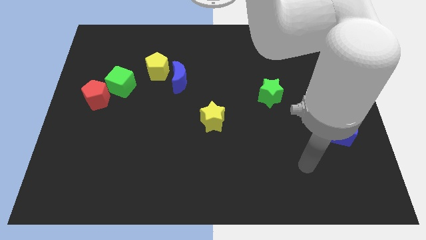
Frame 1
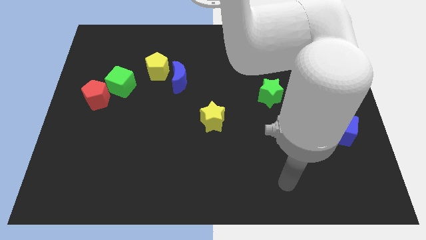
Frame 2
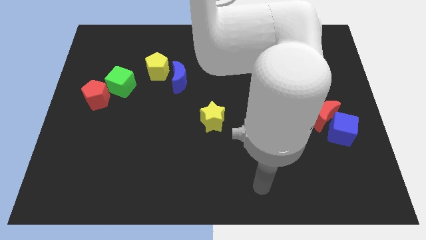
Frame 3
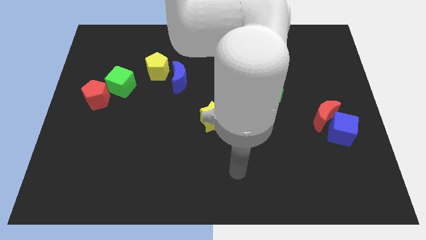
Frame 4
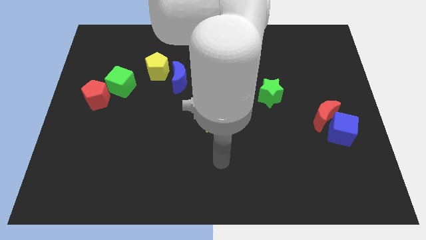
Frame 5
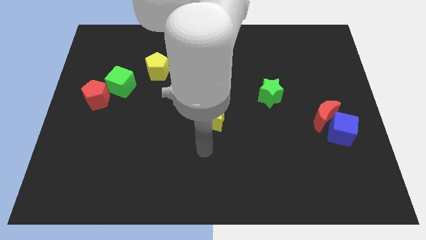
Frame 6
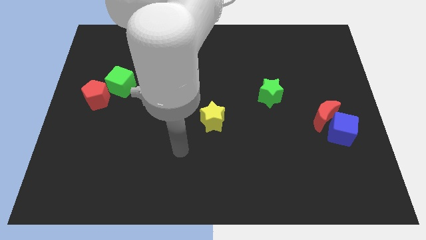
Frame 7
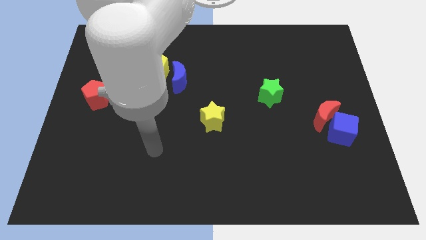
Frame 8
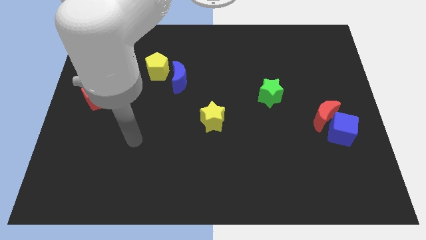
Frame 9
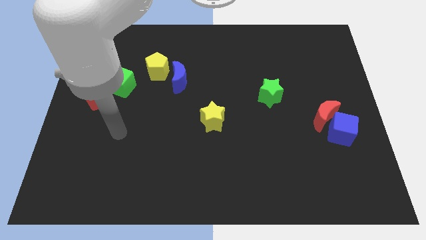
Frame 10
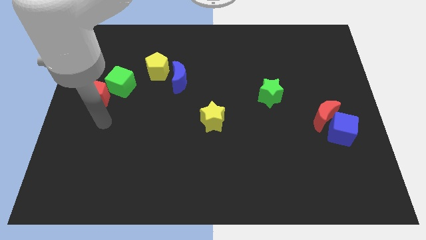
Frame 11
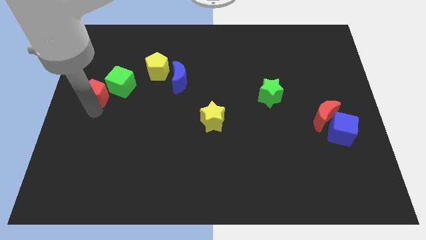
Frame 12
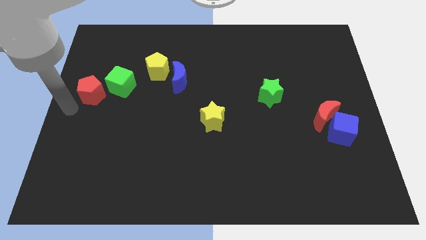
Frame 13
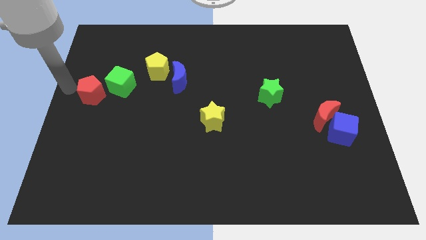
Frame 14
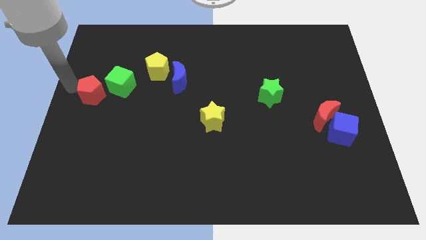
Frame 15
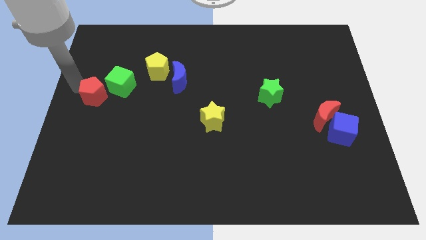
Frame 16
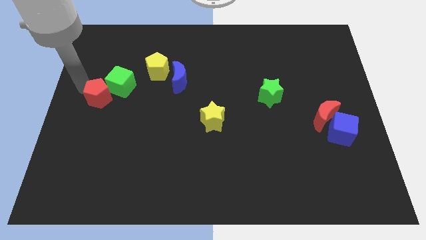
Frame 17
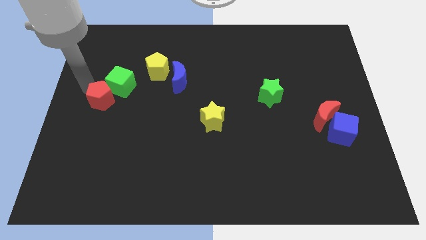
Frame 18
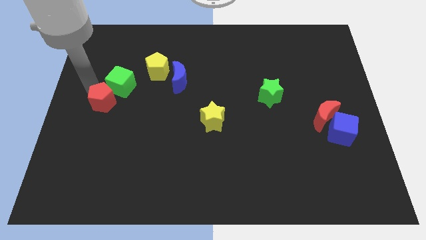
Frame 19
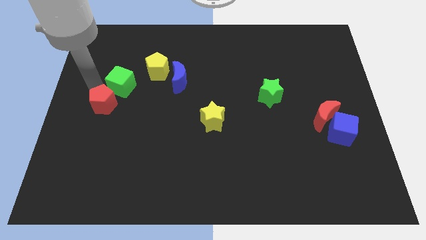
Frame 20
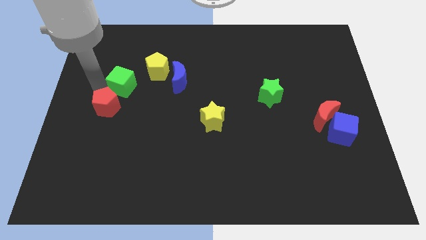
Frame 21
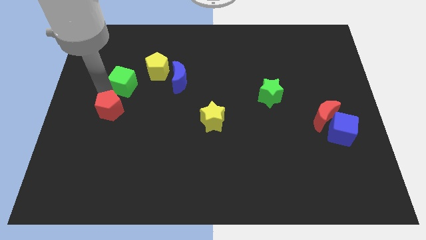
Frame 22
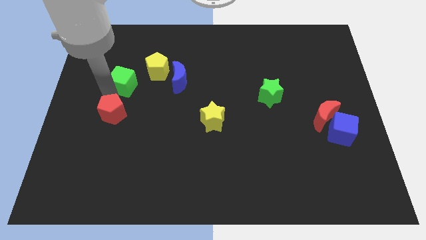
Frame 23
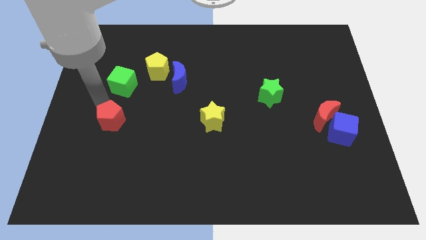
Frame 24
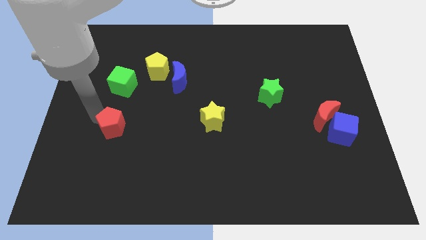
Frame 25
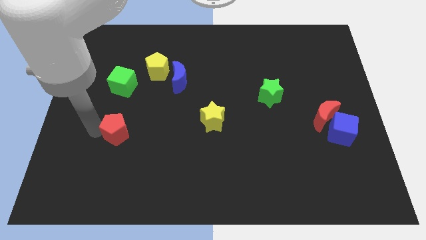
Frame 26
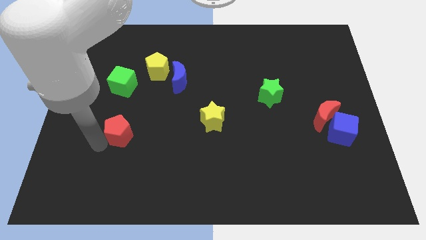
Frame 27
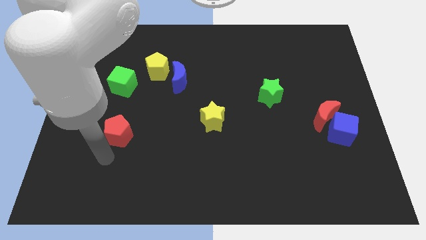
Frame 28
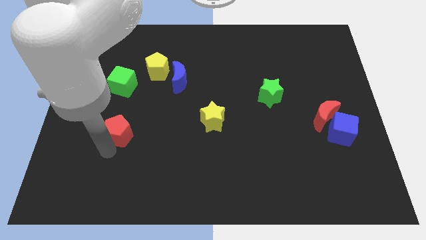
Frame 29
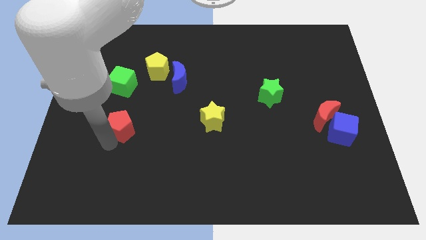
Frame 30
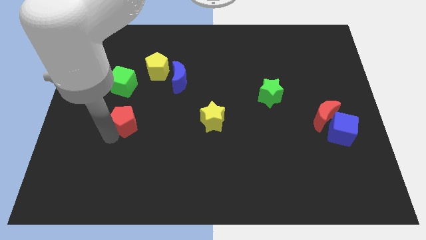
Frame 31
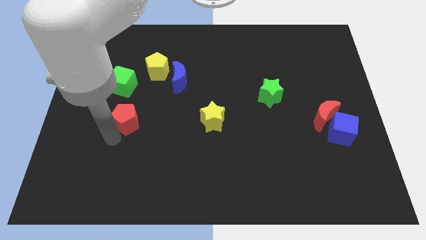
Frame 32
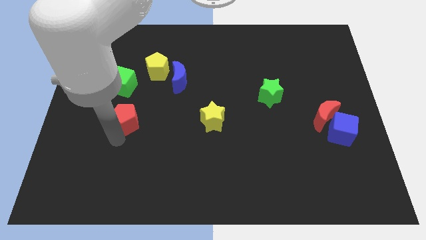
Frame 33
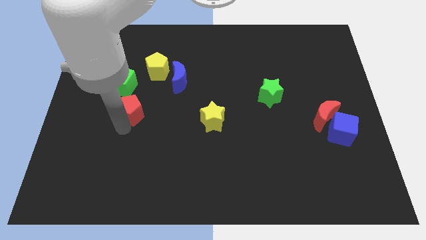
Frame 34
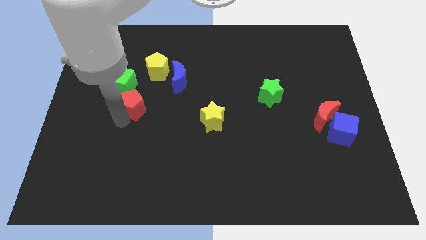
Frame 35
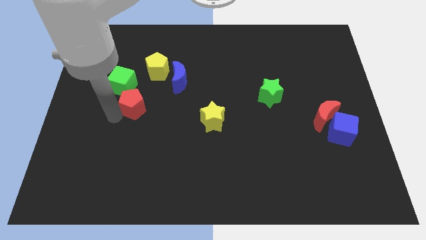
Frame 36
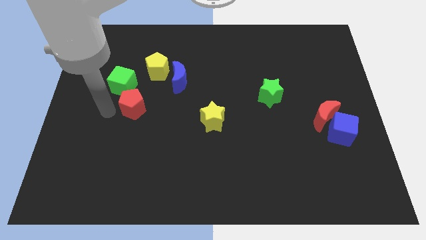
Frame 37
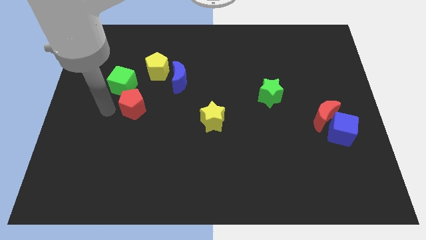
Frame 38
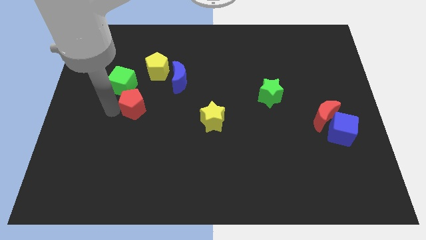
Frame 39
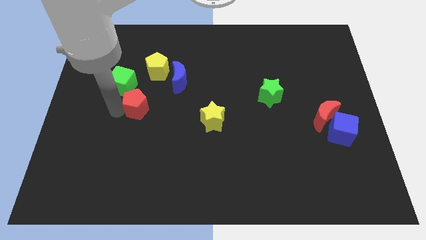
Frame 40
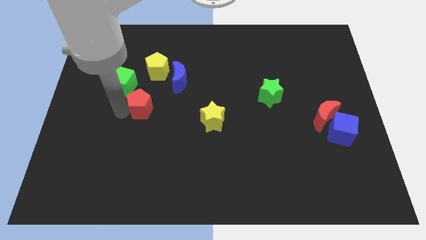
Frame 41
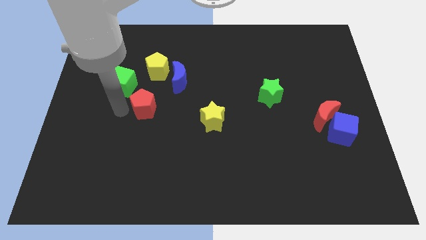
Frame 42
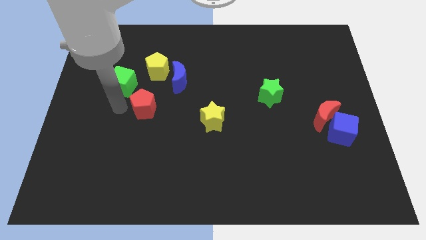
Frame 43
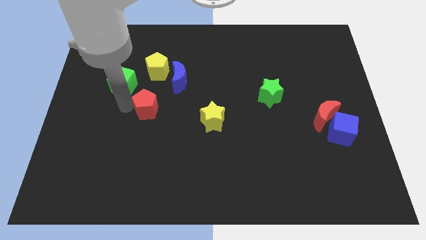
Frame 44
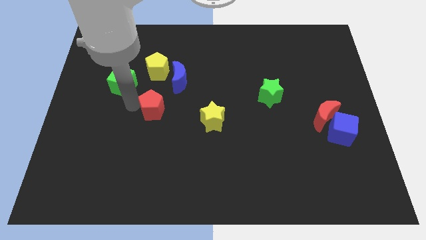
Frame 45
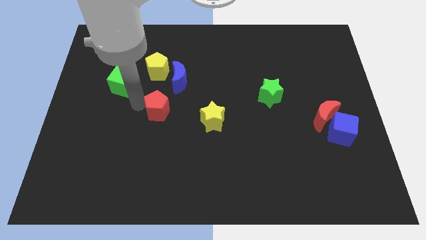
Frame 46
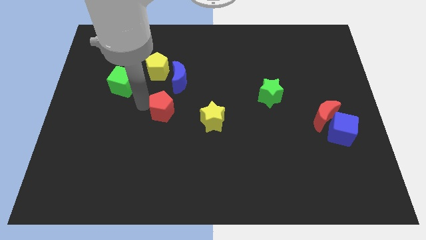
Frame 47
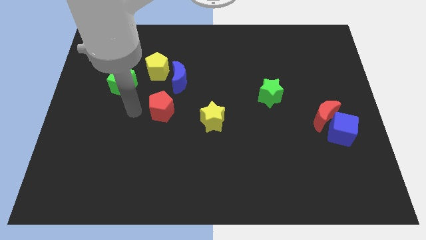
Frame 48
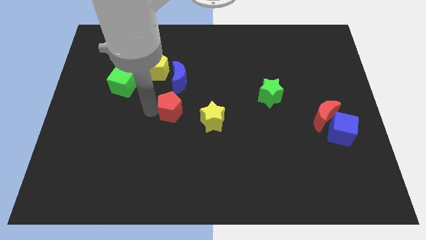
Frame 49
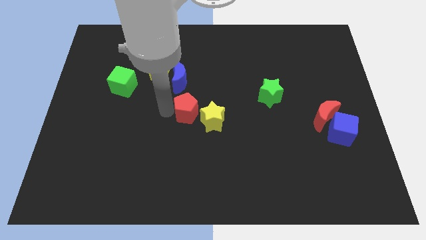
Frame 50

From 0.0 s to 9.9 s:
slide the red pentagon right

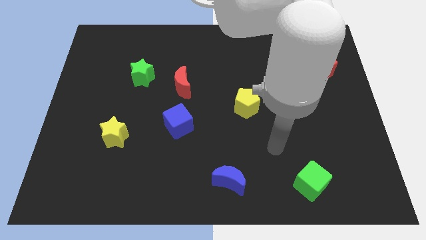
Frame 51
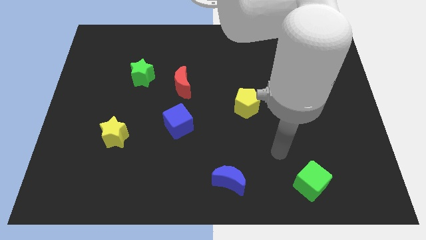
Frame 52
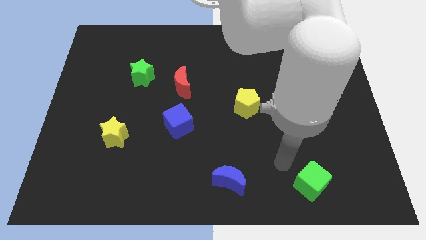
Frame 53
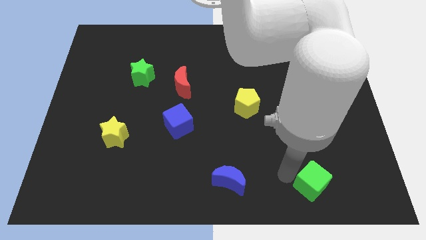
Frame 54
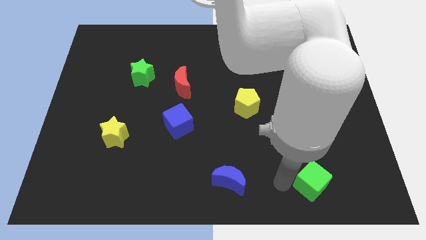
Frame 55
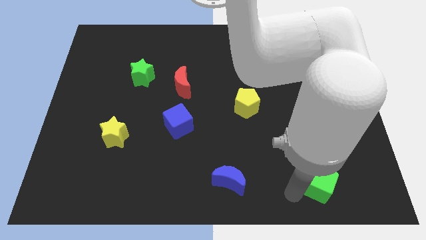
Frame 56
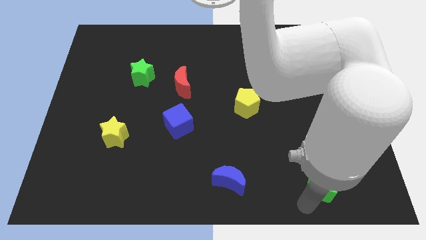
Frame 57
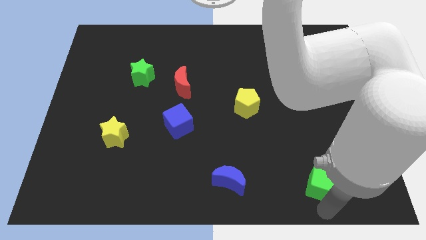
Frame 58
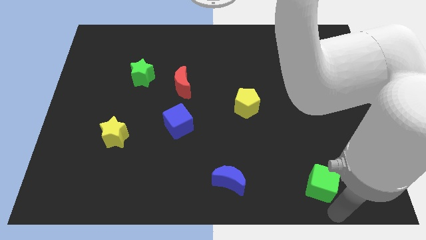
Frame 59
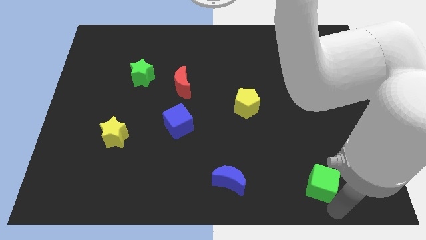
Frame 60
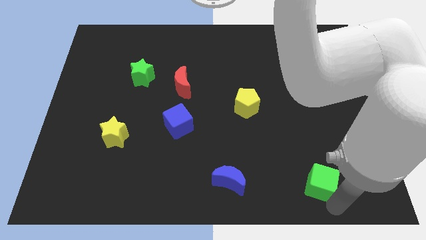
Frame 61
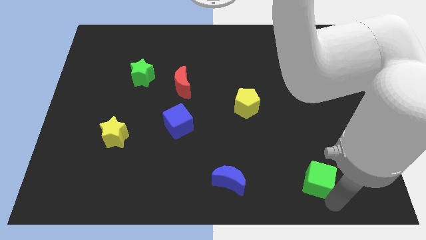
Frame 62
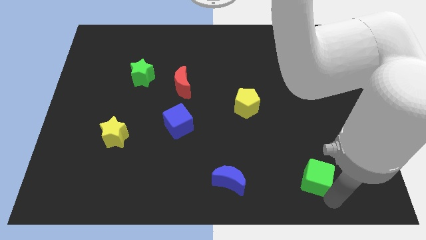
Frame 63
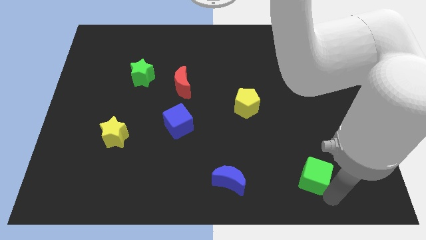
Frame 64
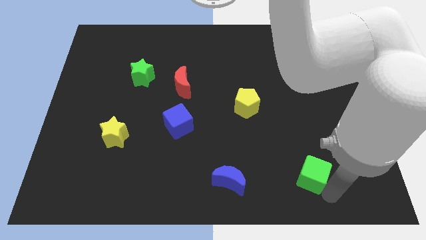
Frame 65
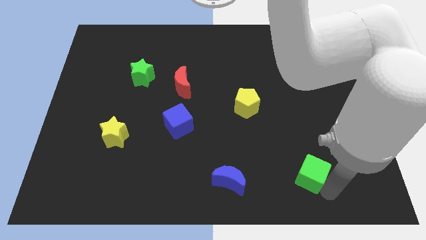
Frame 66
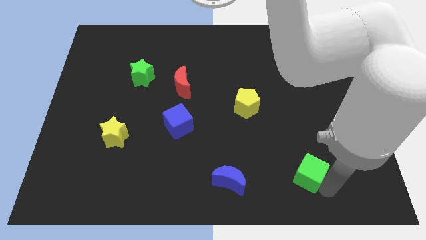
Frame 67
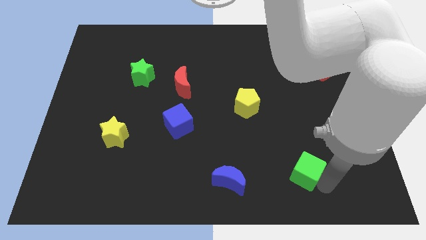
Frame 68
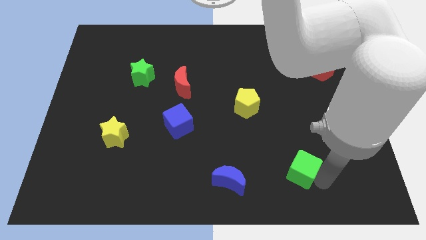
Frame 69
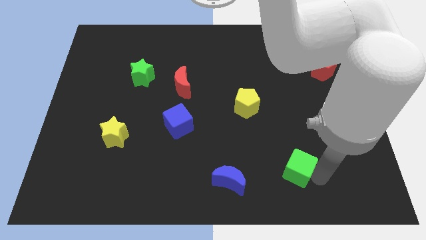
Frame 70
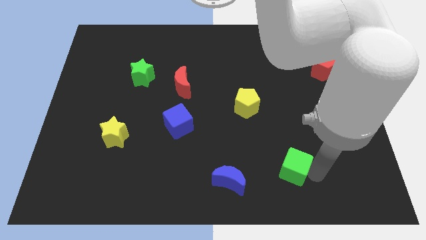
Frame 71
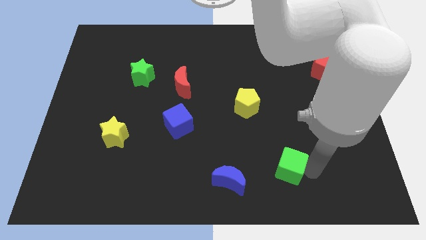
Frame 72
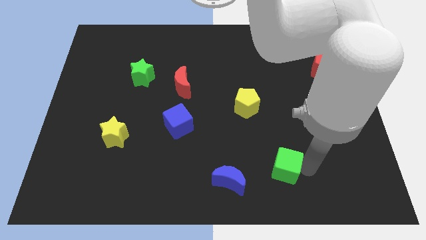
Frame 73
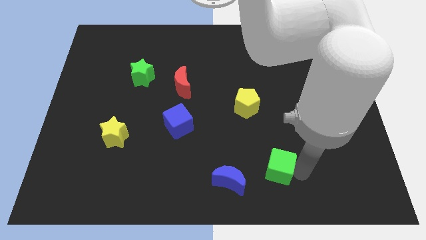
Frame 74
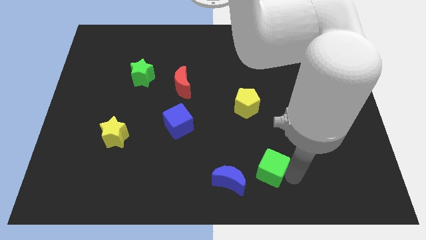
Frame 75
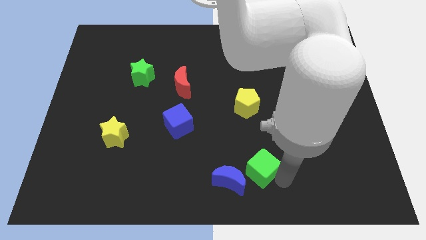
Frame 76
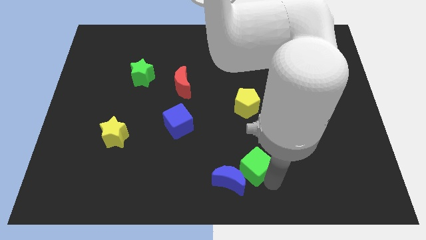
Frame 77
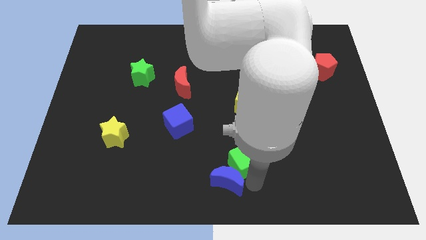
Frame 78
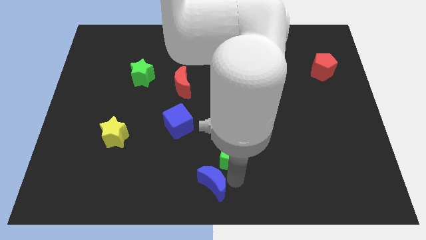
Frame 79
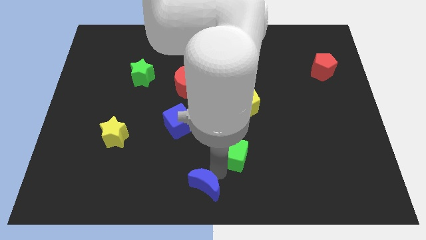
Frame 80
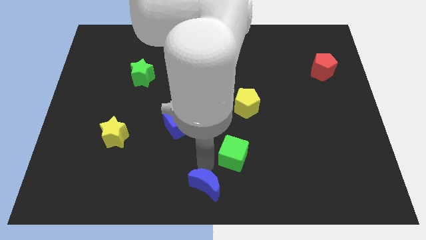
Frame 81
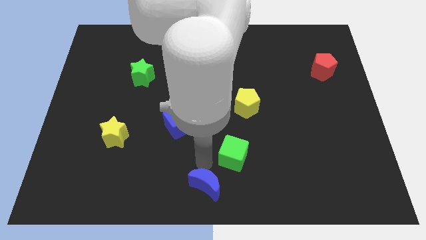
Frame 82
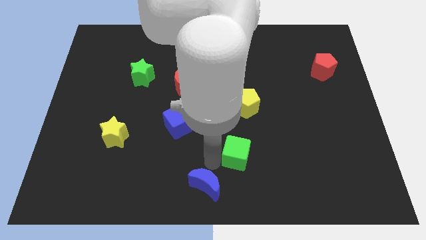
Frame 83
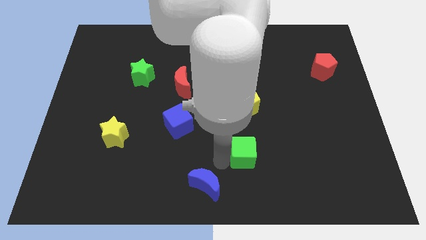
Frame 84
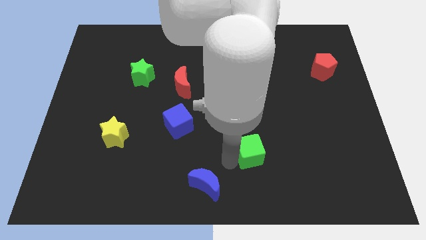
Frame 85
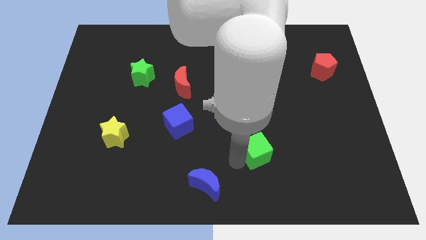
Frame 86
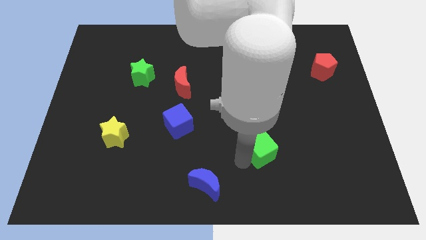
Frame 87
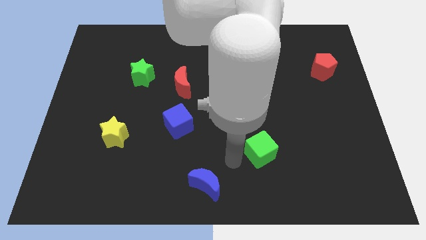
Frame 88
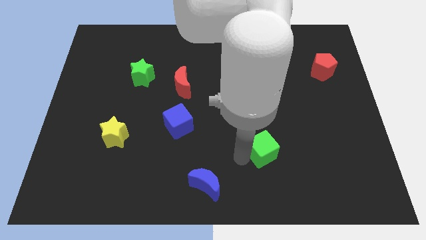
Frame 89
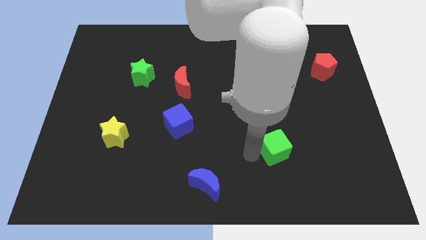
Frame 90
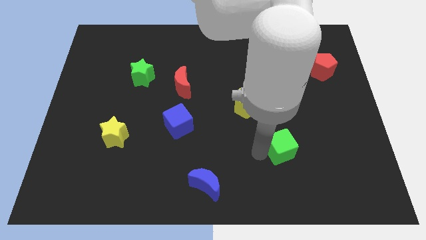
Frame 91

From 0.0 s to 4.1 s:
slightly push the green cube upwards
